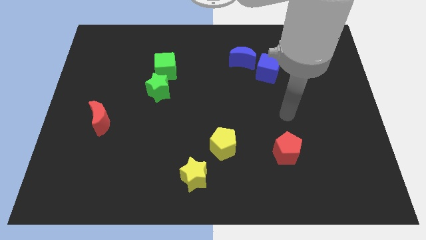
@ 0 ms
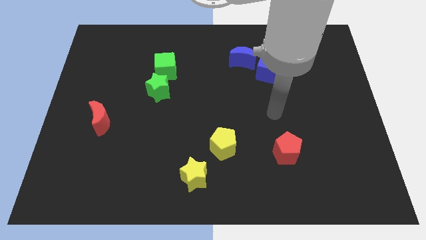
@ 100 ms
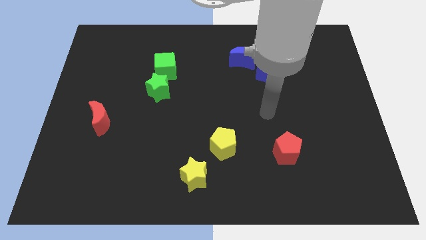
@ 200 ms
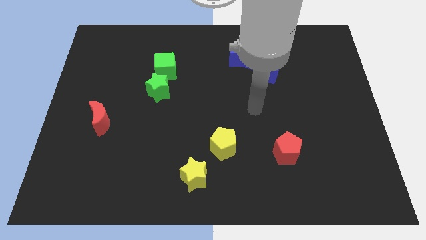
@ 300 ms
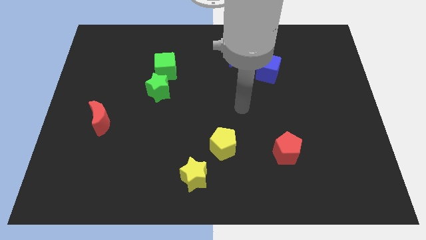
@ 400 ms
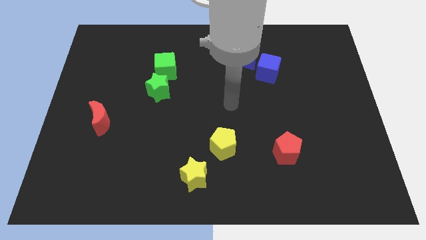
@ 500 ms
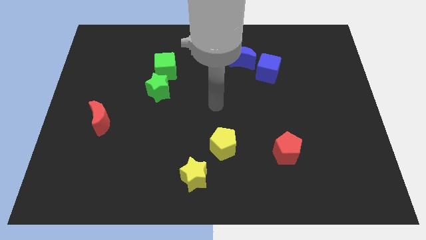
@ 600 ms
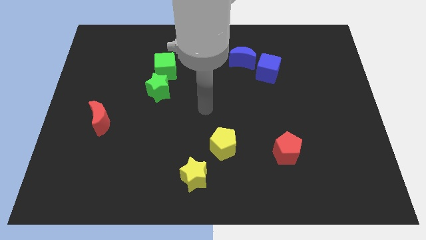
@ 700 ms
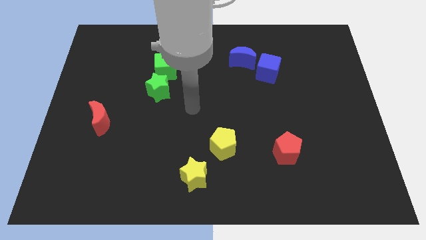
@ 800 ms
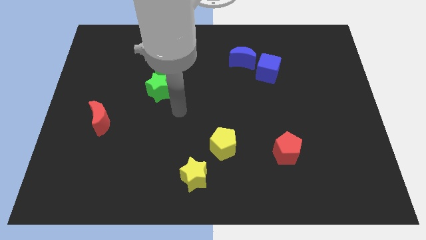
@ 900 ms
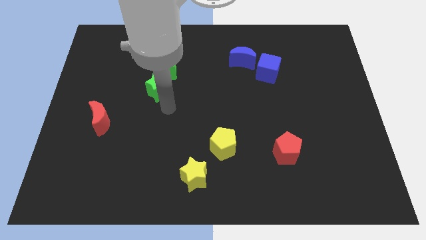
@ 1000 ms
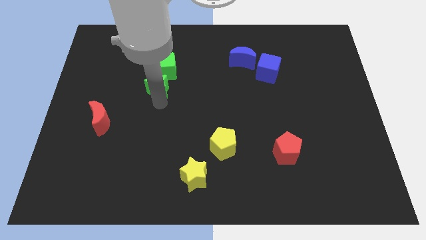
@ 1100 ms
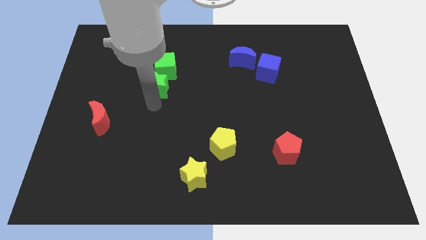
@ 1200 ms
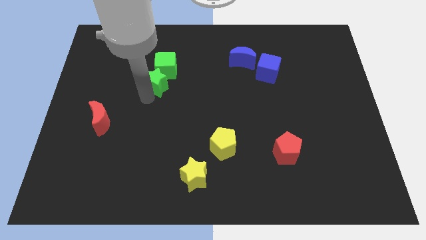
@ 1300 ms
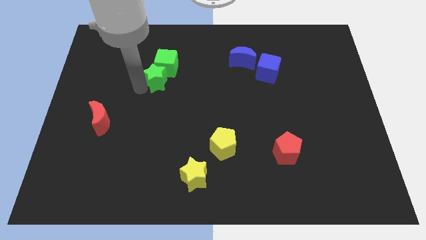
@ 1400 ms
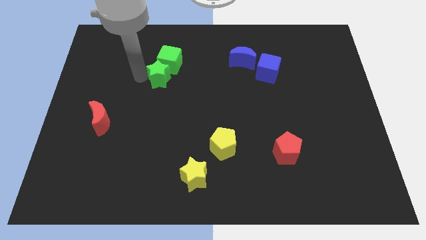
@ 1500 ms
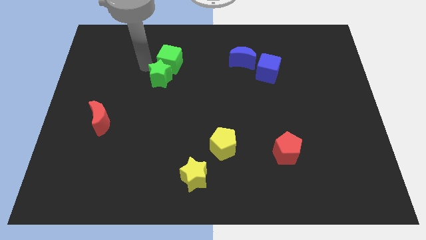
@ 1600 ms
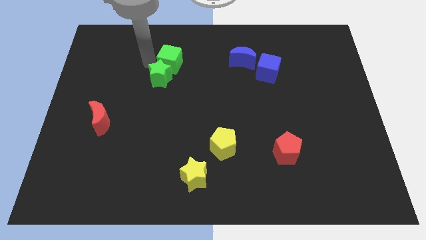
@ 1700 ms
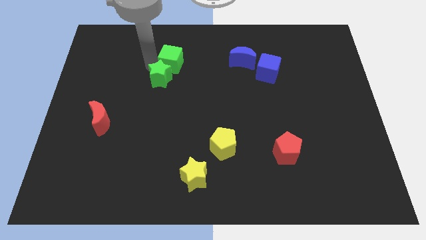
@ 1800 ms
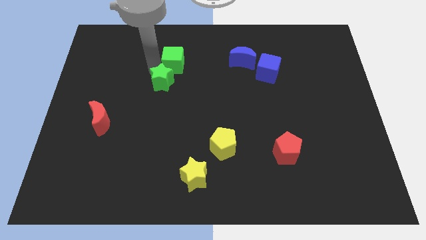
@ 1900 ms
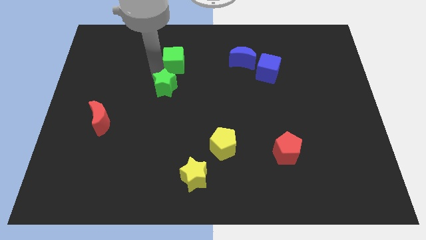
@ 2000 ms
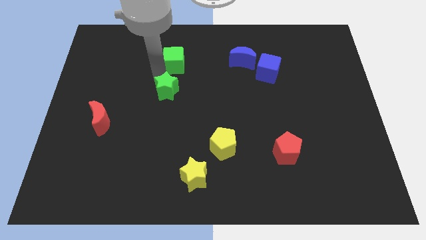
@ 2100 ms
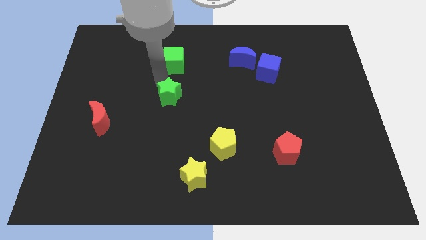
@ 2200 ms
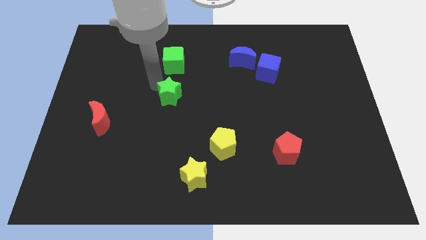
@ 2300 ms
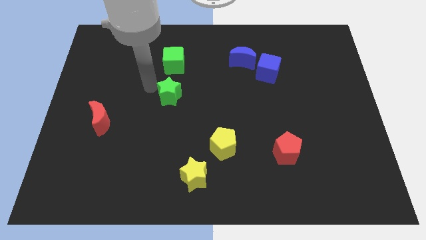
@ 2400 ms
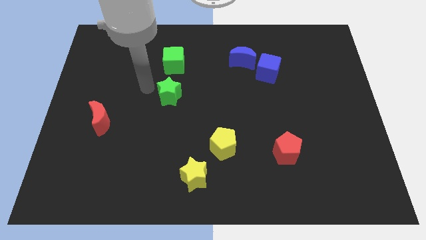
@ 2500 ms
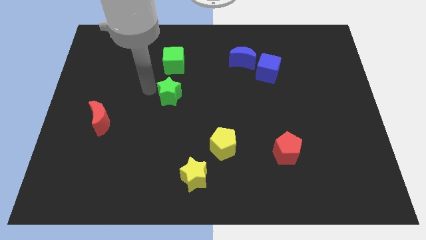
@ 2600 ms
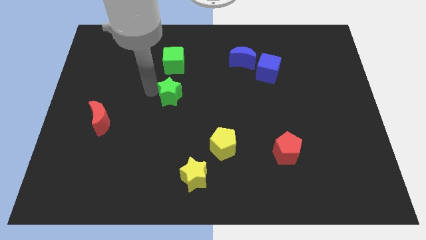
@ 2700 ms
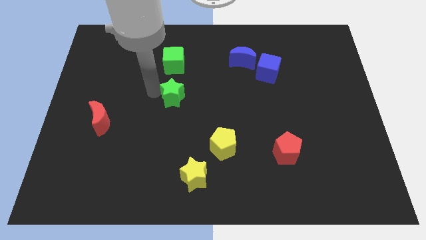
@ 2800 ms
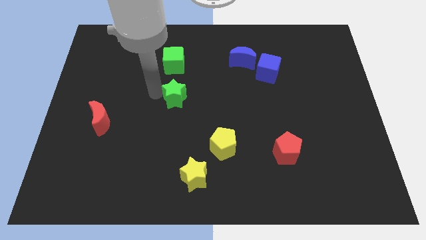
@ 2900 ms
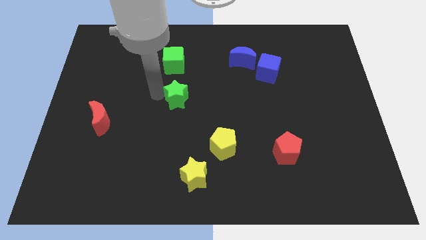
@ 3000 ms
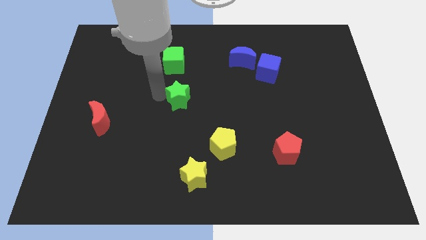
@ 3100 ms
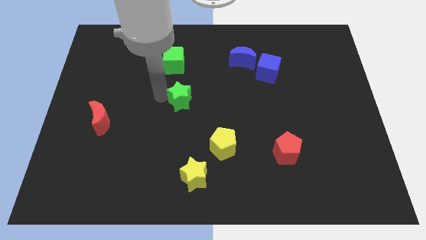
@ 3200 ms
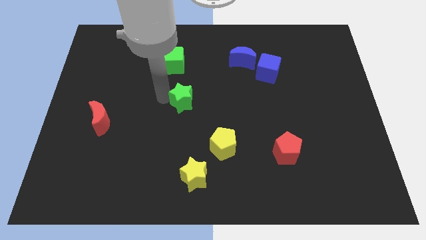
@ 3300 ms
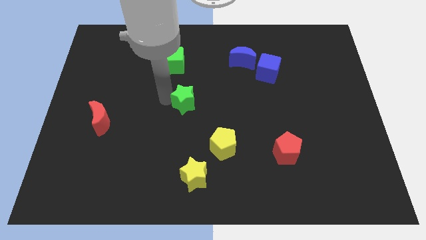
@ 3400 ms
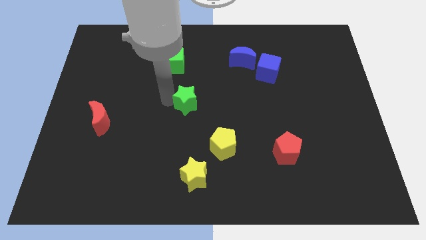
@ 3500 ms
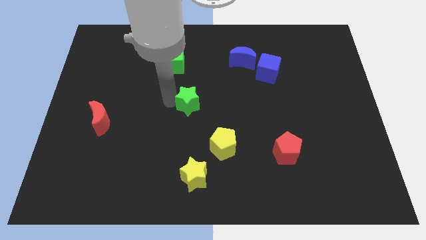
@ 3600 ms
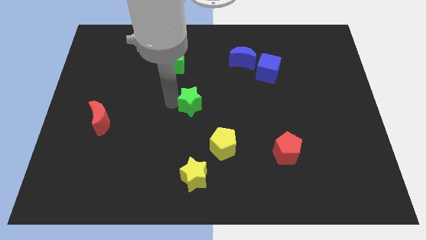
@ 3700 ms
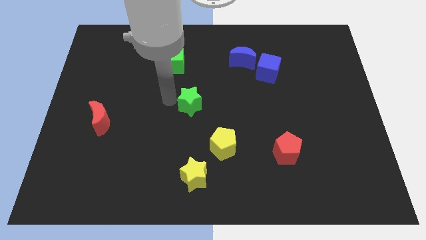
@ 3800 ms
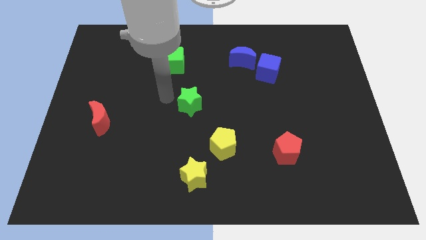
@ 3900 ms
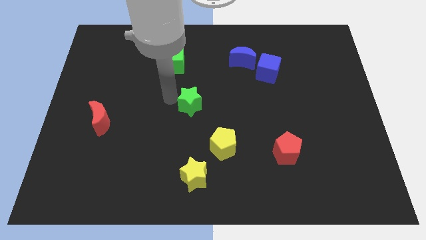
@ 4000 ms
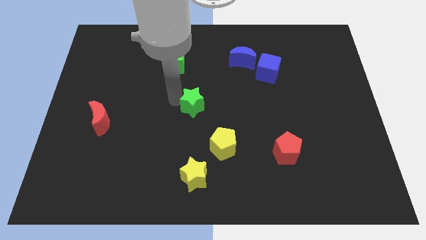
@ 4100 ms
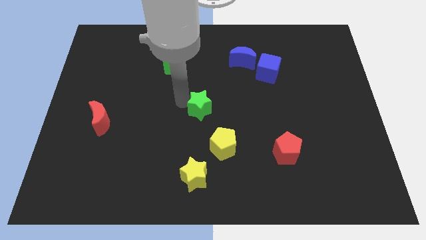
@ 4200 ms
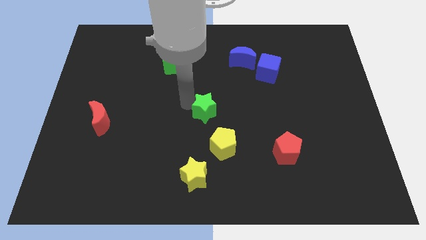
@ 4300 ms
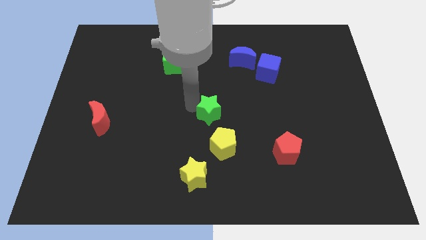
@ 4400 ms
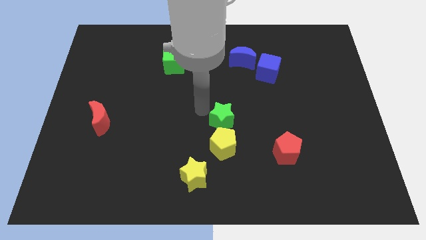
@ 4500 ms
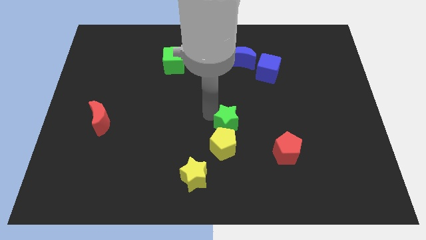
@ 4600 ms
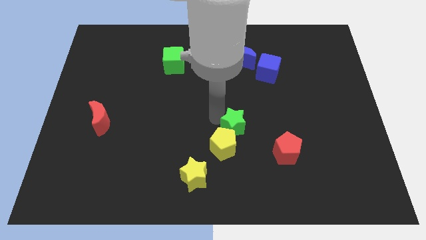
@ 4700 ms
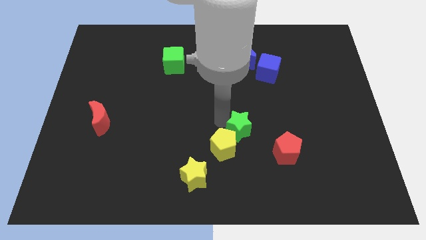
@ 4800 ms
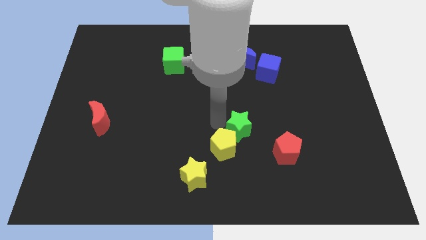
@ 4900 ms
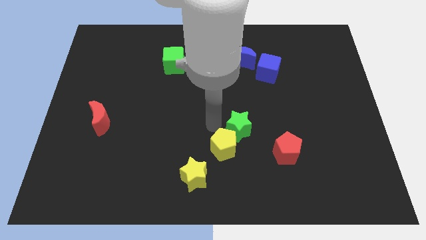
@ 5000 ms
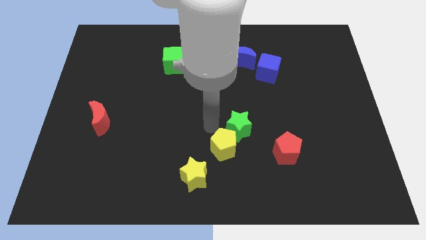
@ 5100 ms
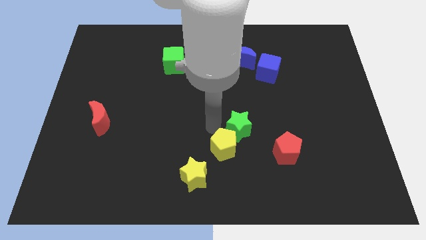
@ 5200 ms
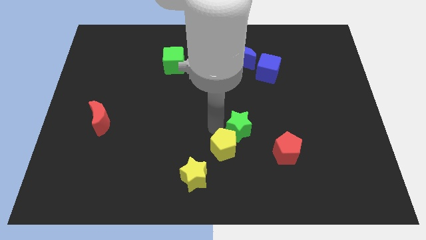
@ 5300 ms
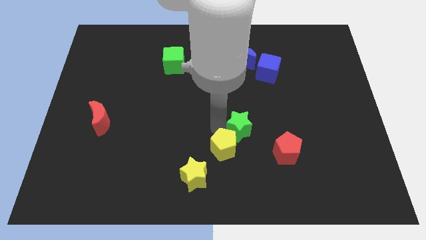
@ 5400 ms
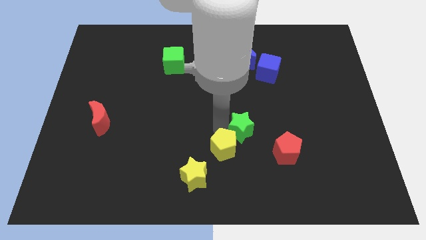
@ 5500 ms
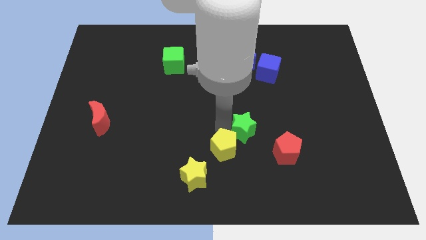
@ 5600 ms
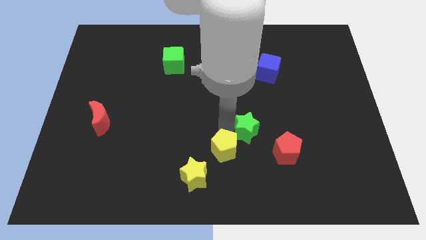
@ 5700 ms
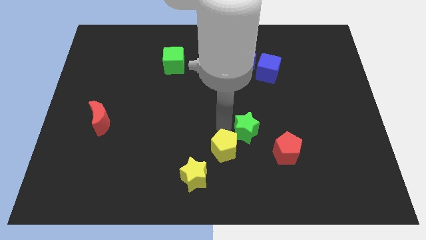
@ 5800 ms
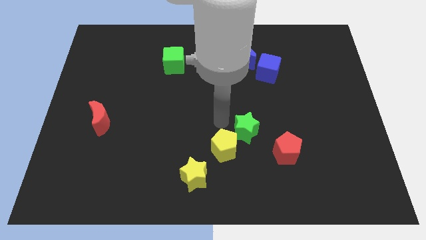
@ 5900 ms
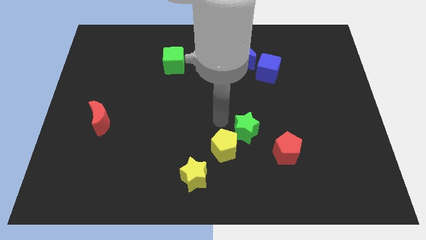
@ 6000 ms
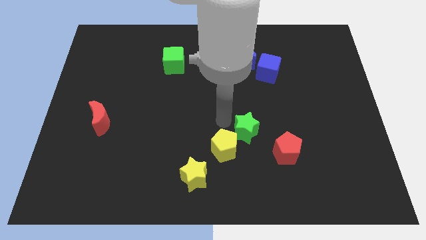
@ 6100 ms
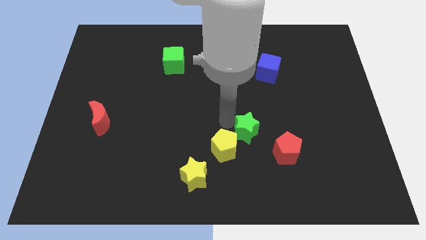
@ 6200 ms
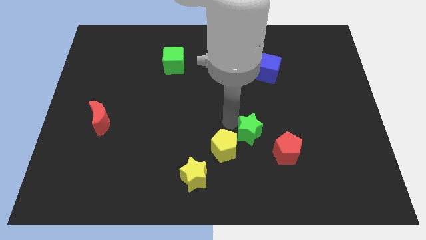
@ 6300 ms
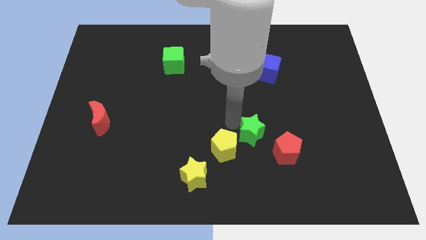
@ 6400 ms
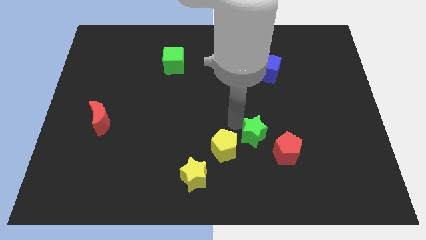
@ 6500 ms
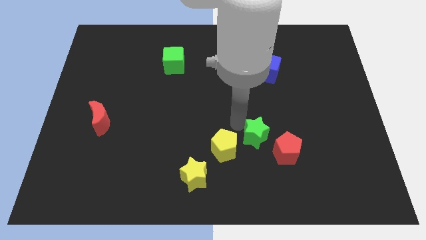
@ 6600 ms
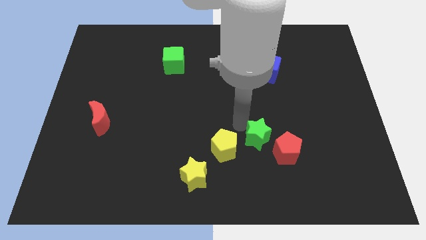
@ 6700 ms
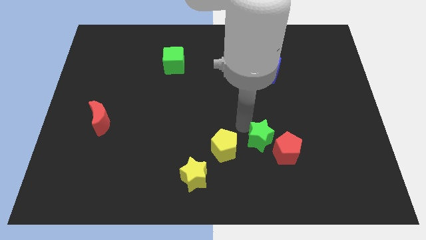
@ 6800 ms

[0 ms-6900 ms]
push the green star next to the red pentagon

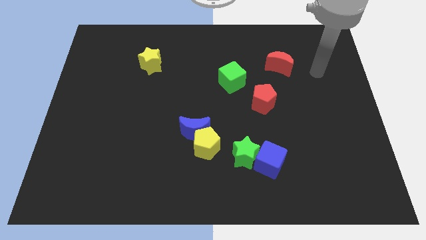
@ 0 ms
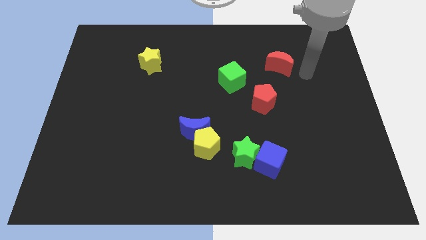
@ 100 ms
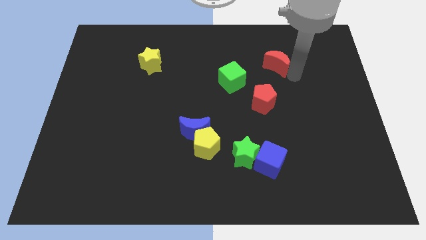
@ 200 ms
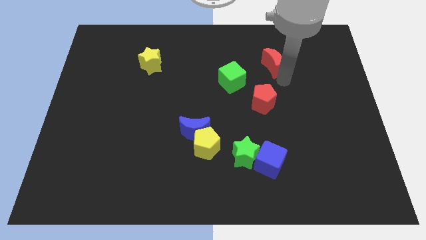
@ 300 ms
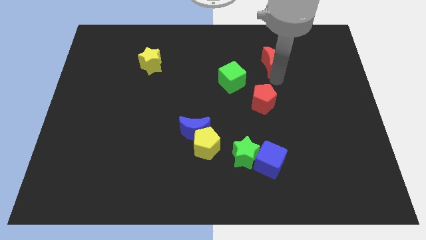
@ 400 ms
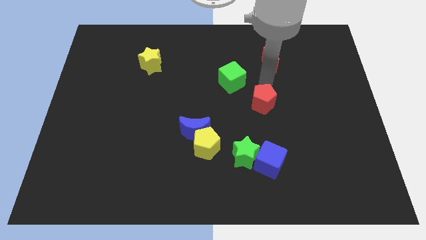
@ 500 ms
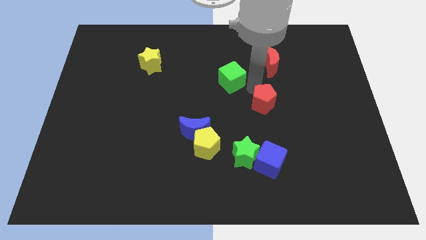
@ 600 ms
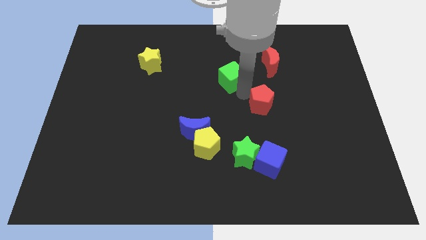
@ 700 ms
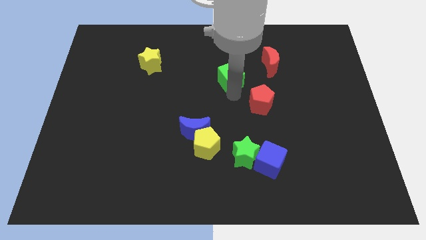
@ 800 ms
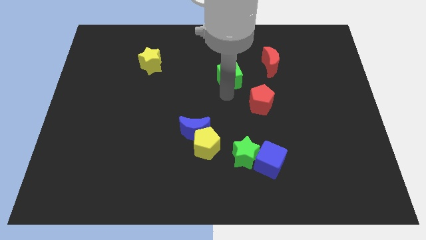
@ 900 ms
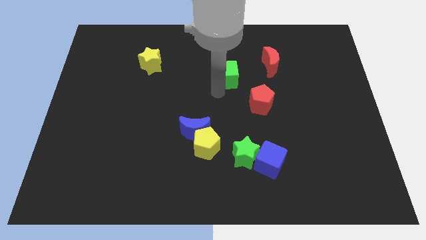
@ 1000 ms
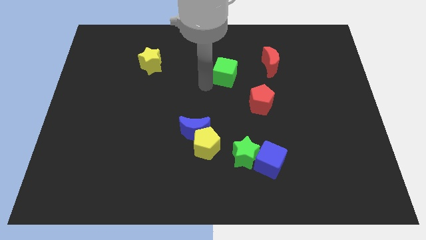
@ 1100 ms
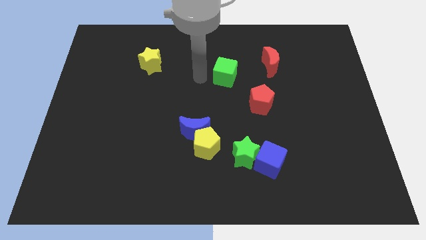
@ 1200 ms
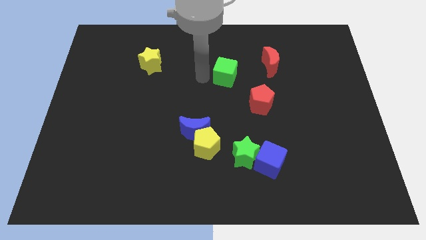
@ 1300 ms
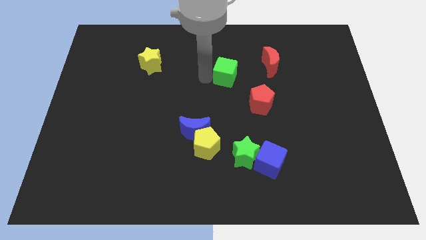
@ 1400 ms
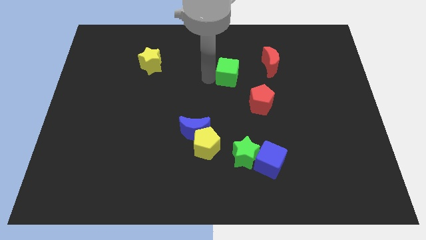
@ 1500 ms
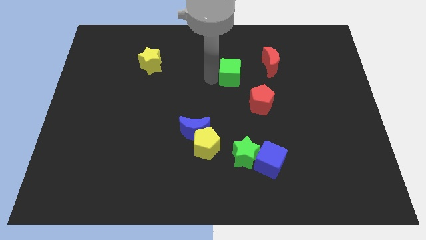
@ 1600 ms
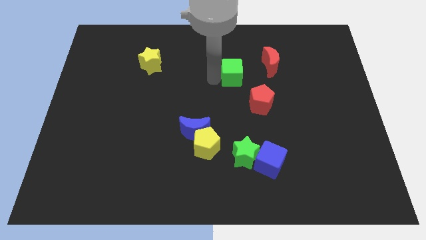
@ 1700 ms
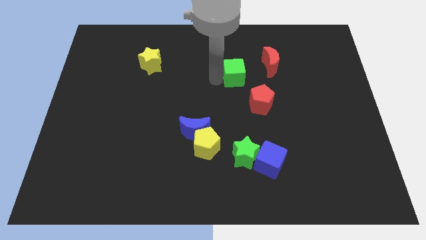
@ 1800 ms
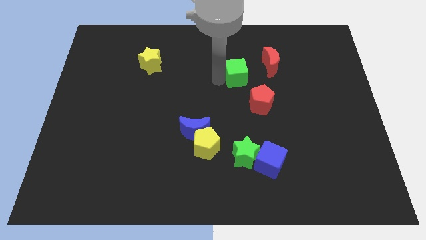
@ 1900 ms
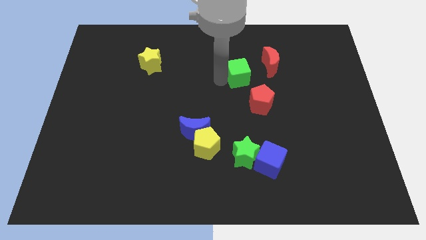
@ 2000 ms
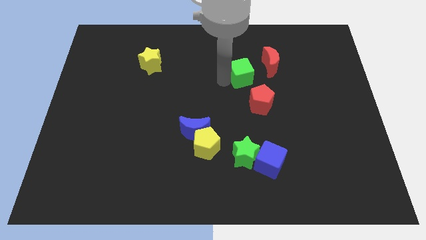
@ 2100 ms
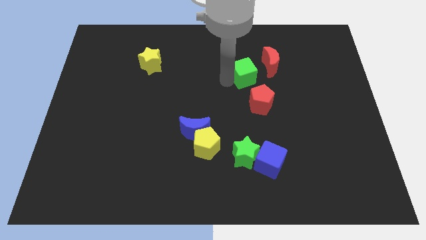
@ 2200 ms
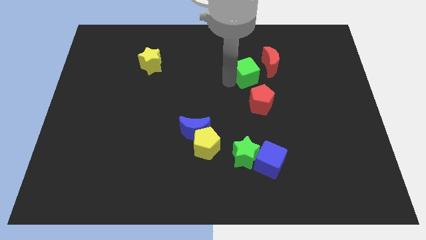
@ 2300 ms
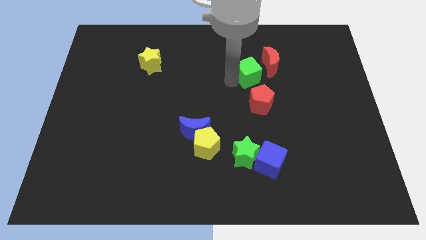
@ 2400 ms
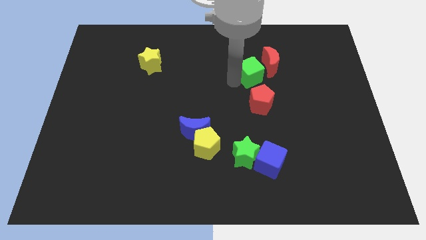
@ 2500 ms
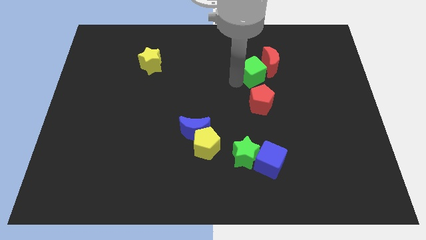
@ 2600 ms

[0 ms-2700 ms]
move the green cube next to the red moon
